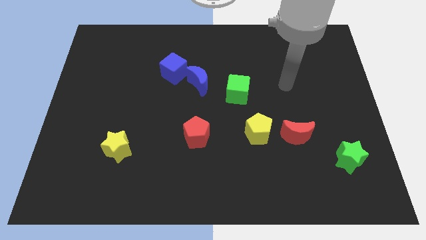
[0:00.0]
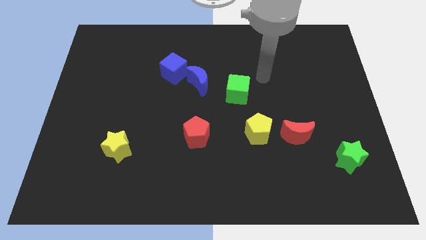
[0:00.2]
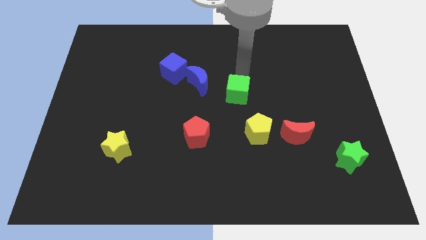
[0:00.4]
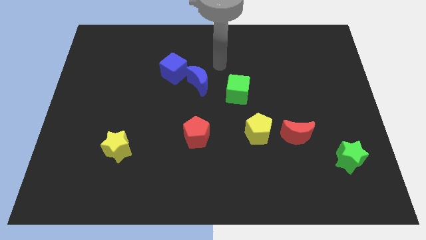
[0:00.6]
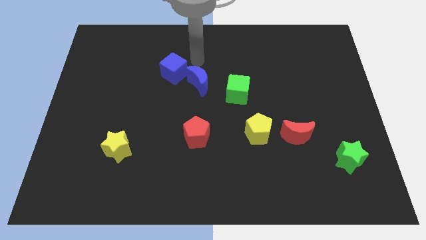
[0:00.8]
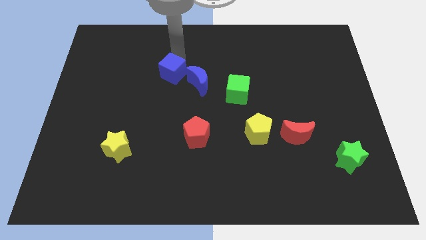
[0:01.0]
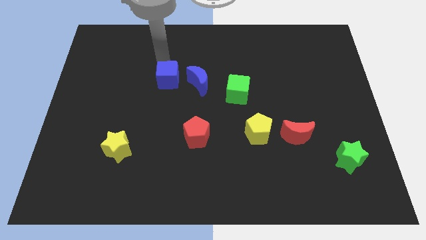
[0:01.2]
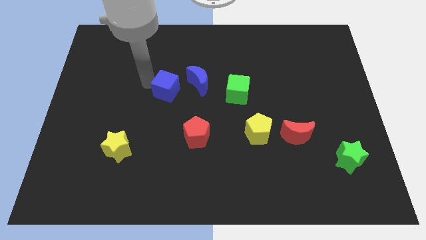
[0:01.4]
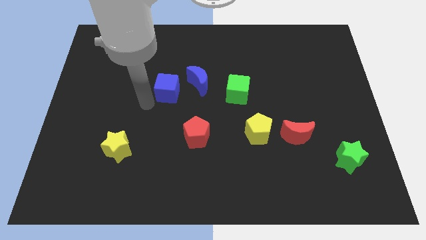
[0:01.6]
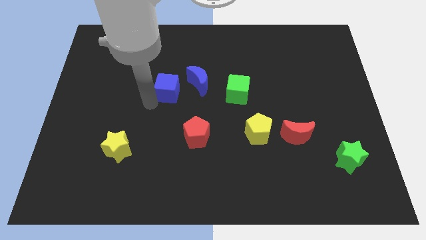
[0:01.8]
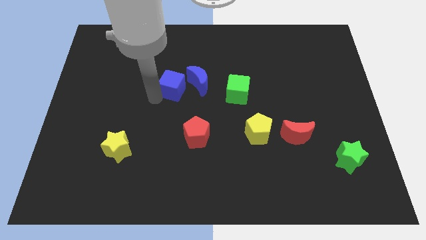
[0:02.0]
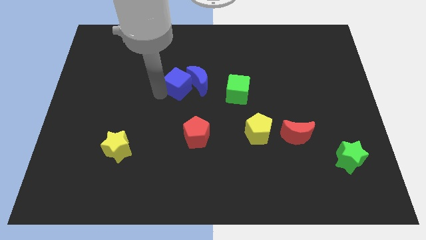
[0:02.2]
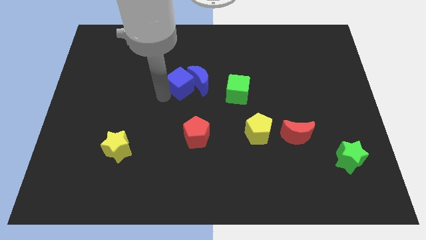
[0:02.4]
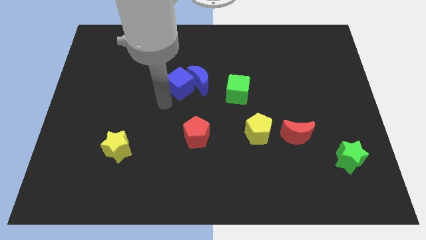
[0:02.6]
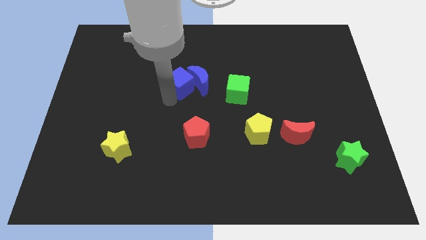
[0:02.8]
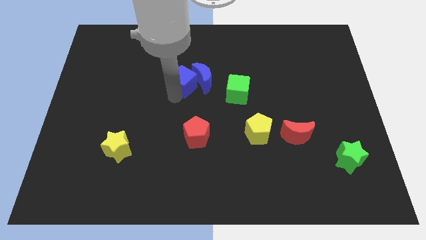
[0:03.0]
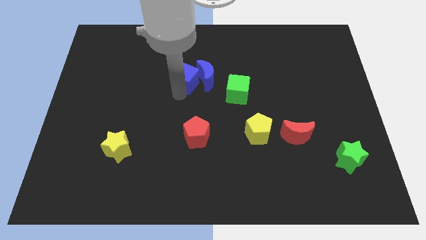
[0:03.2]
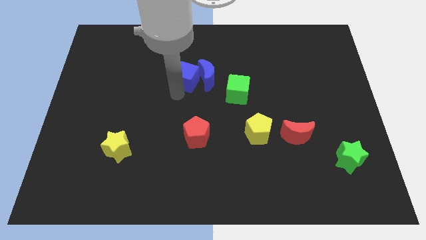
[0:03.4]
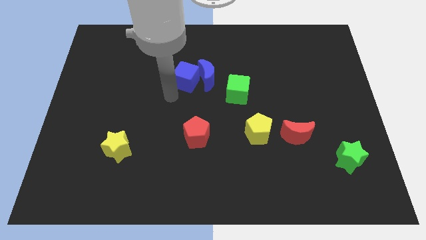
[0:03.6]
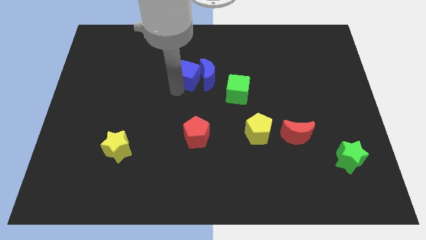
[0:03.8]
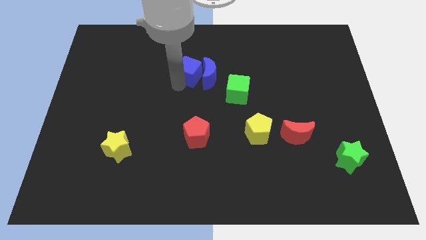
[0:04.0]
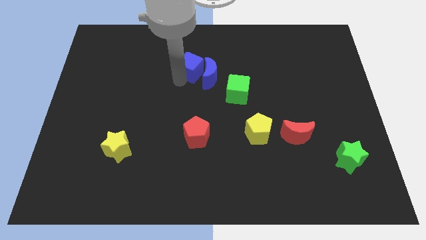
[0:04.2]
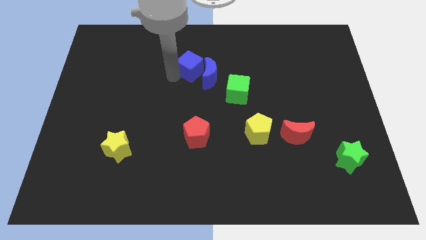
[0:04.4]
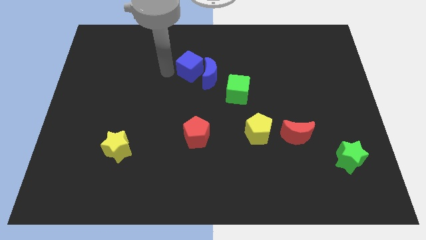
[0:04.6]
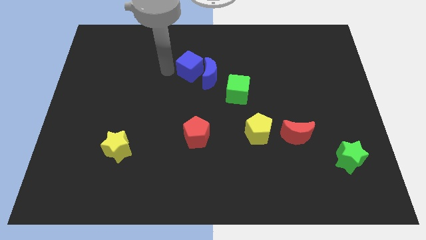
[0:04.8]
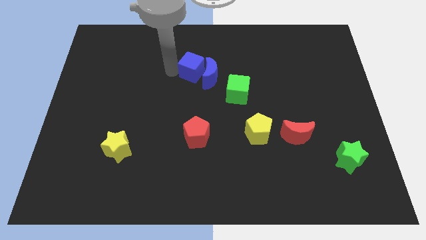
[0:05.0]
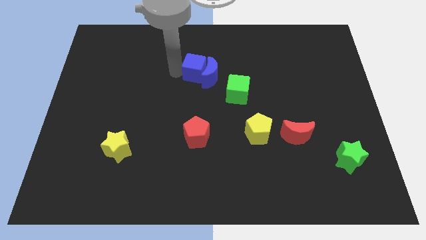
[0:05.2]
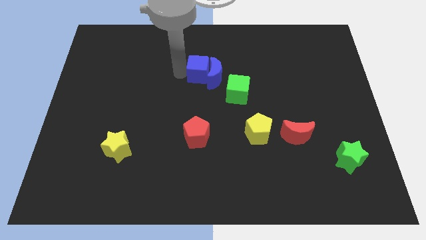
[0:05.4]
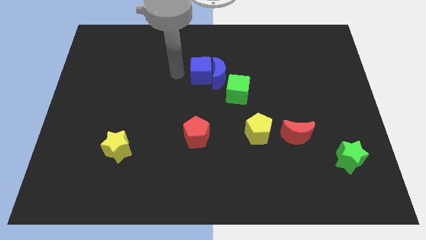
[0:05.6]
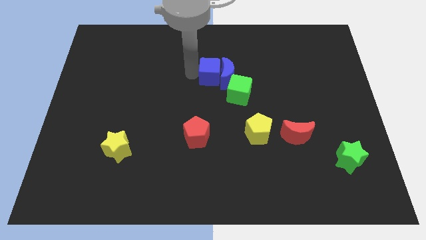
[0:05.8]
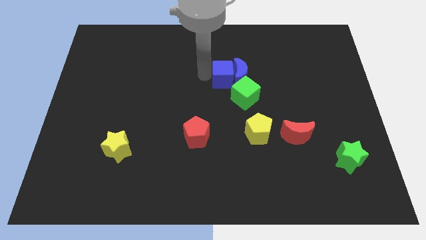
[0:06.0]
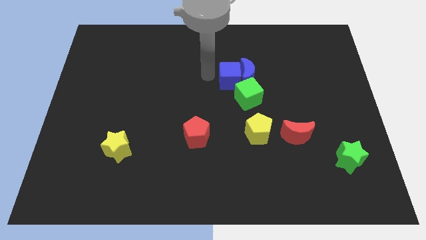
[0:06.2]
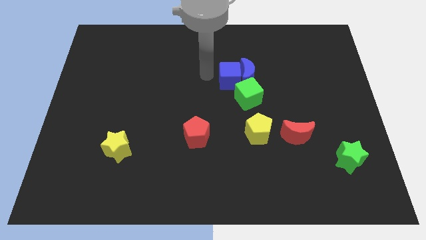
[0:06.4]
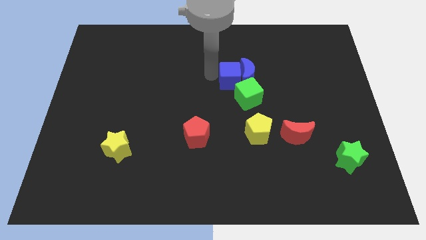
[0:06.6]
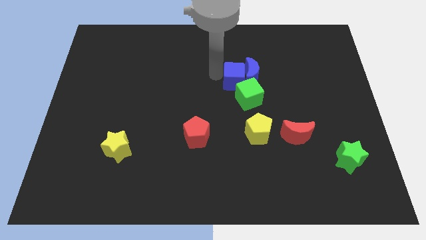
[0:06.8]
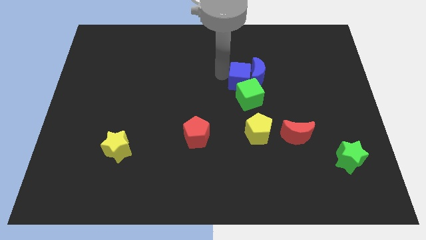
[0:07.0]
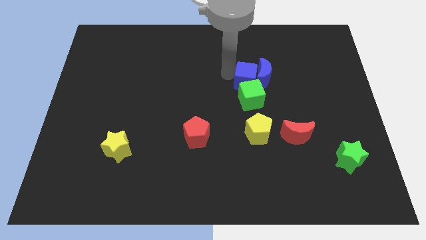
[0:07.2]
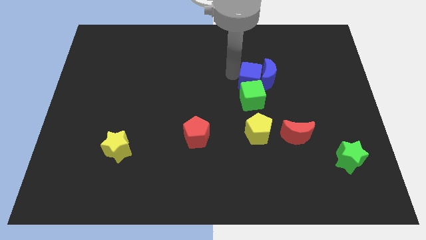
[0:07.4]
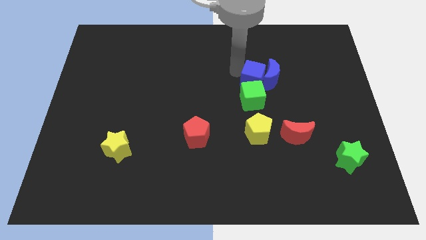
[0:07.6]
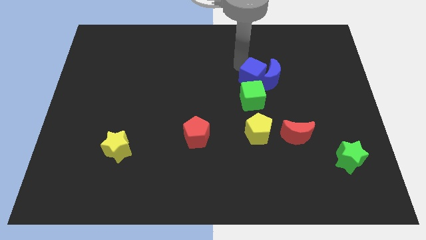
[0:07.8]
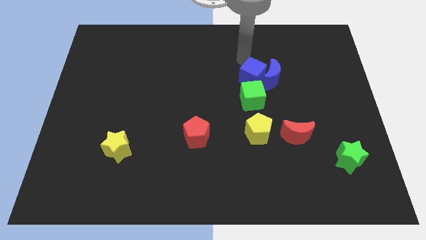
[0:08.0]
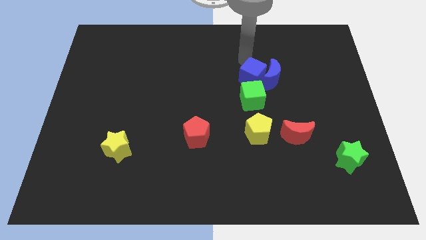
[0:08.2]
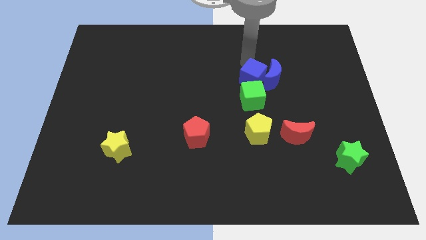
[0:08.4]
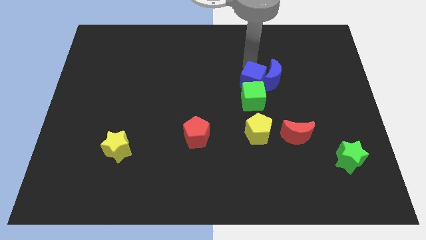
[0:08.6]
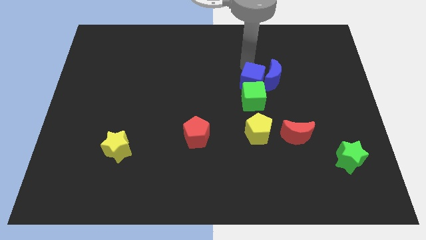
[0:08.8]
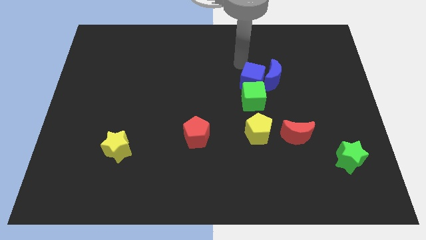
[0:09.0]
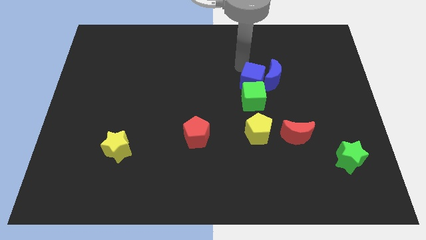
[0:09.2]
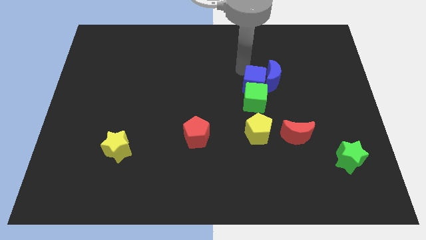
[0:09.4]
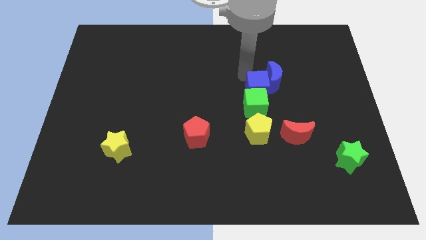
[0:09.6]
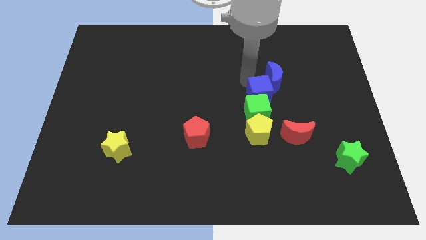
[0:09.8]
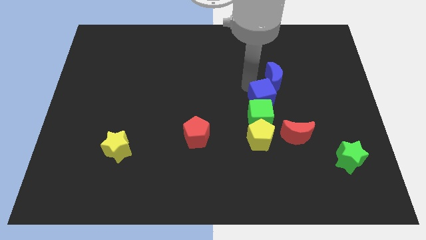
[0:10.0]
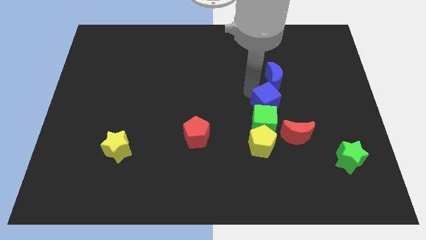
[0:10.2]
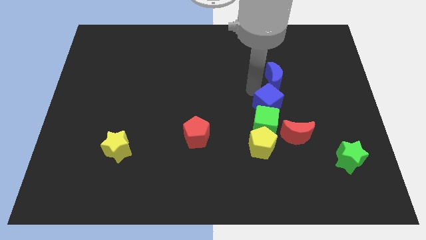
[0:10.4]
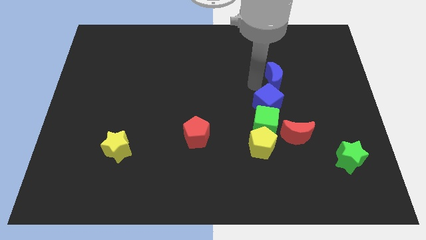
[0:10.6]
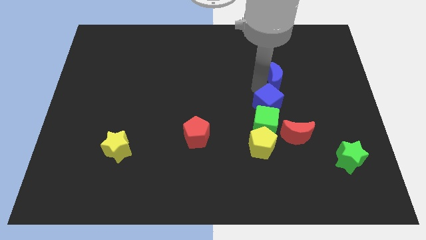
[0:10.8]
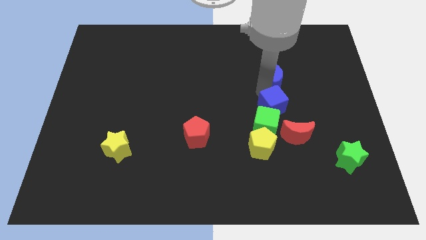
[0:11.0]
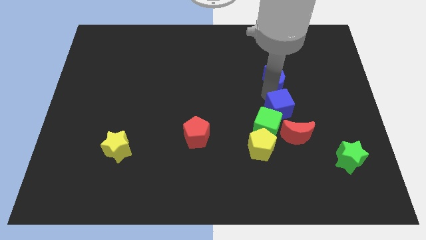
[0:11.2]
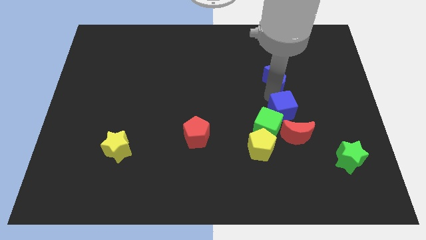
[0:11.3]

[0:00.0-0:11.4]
slide the blue cube to the top right of the yellow pentagon

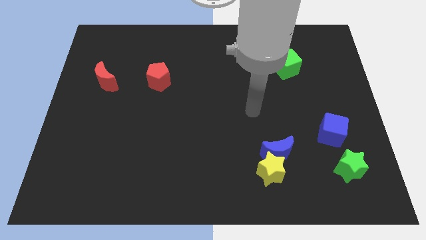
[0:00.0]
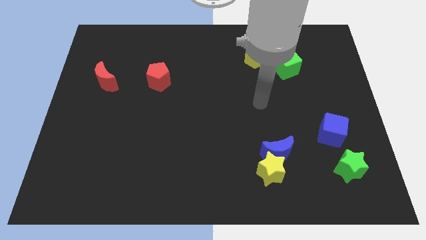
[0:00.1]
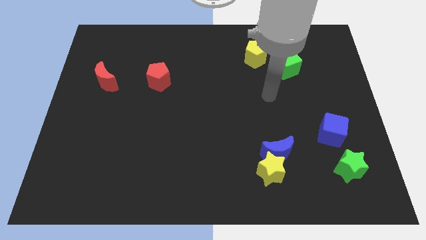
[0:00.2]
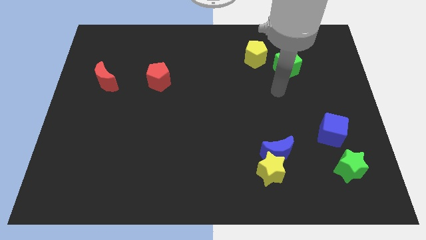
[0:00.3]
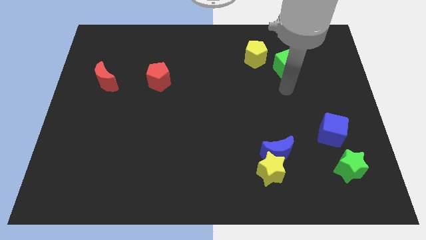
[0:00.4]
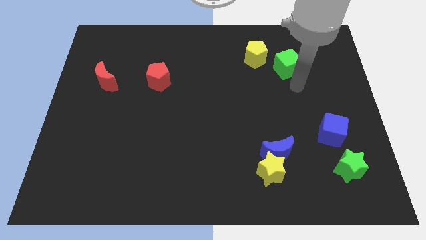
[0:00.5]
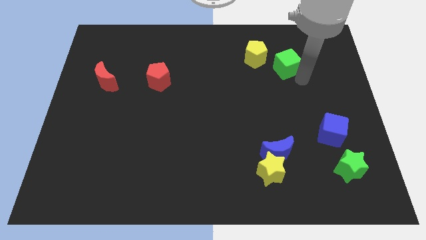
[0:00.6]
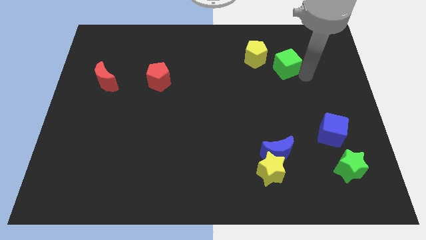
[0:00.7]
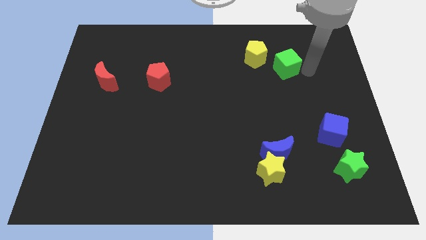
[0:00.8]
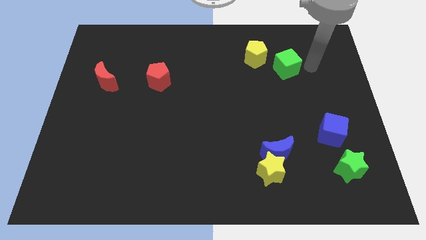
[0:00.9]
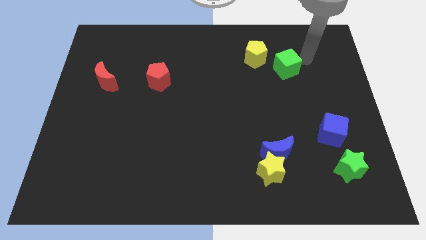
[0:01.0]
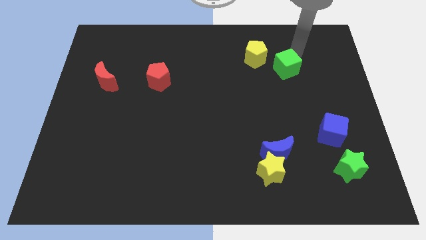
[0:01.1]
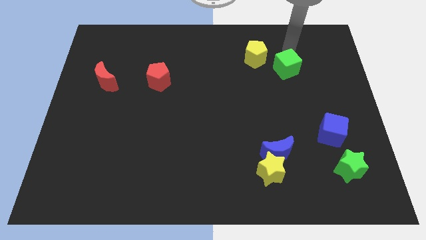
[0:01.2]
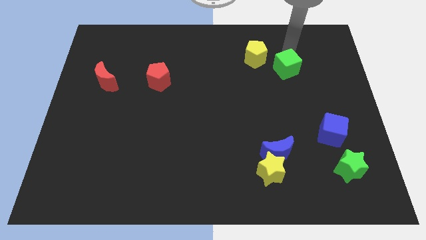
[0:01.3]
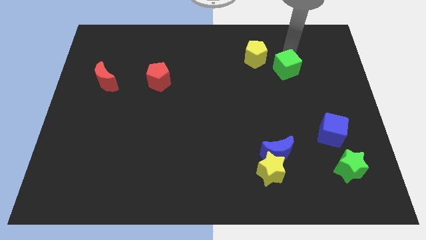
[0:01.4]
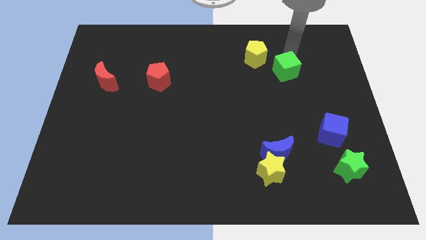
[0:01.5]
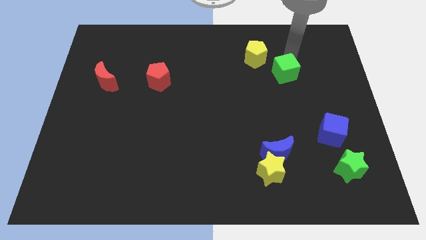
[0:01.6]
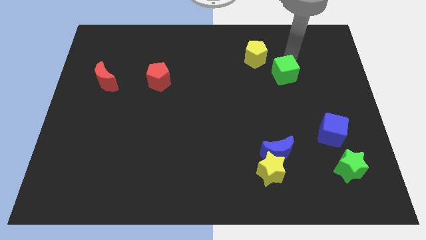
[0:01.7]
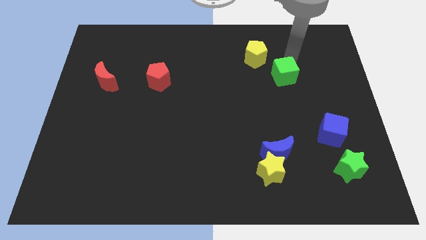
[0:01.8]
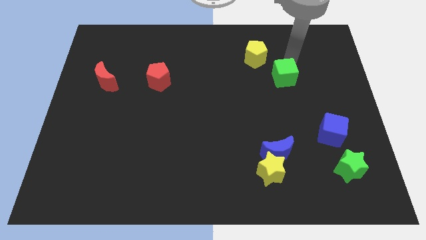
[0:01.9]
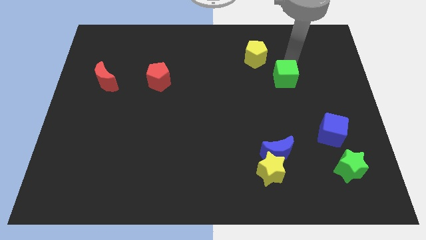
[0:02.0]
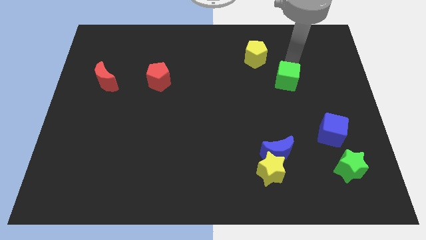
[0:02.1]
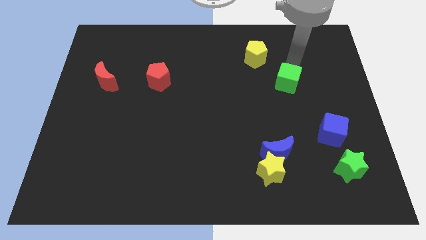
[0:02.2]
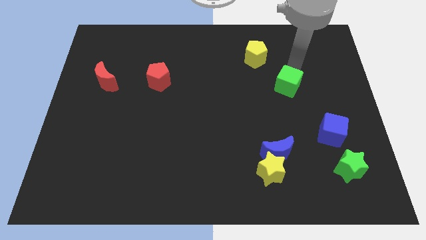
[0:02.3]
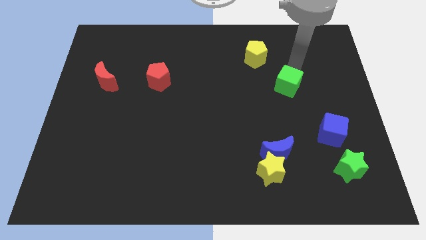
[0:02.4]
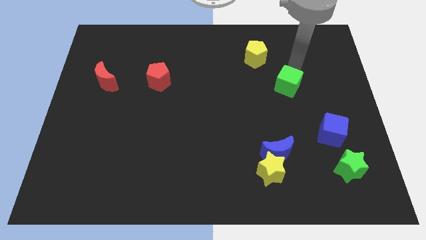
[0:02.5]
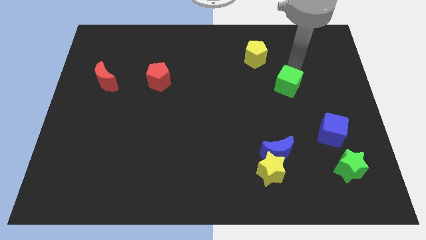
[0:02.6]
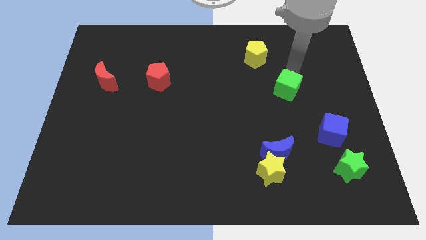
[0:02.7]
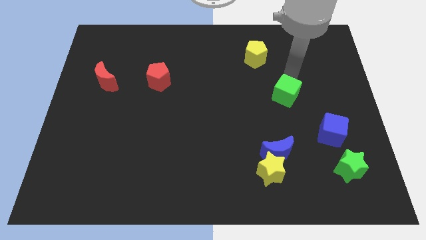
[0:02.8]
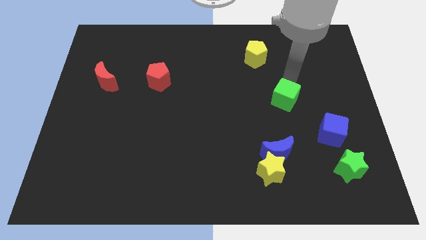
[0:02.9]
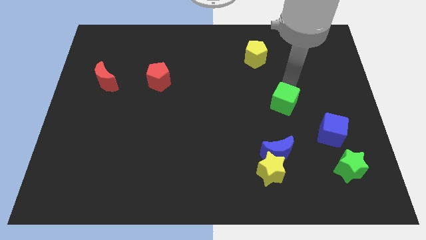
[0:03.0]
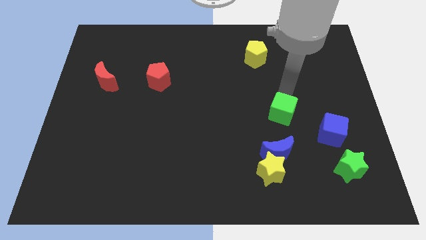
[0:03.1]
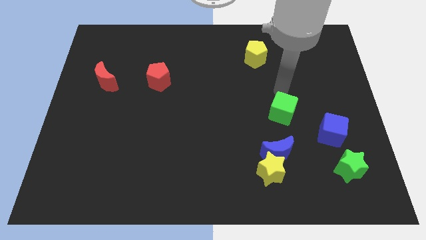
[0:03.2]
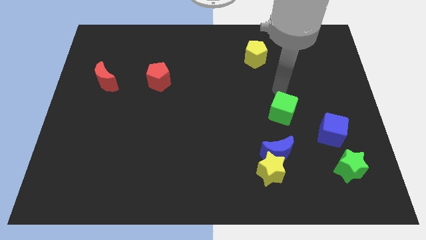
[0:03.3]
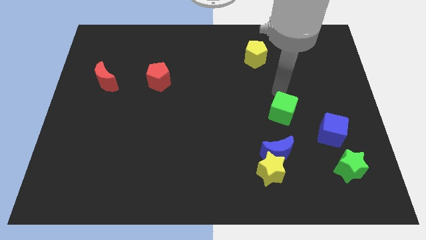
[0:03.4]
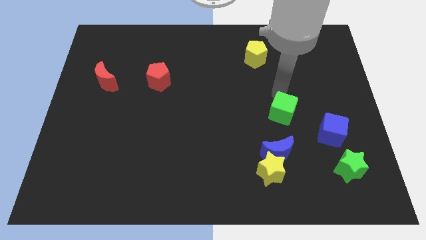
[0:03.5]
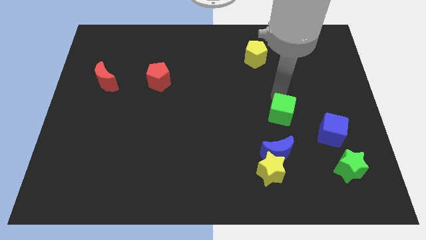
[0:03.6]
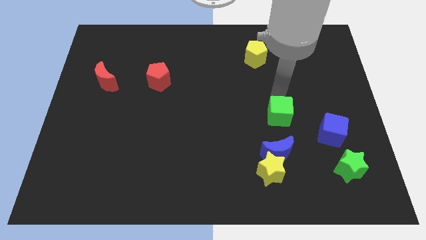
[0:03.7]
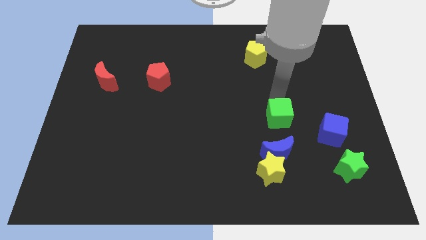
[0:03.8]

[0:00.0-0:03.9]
push the green cube left of the blue cube
